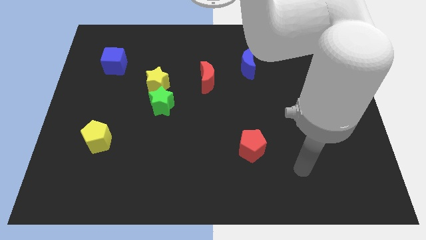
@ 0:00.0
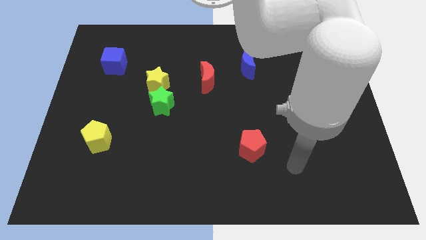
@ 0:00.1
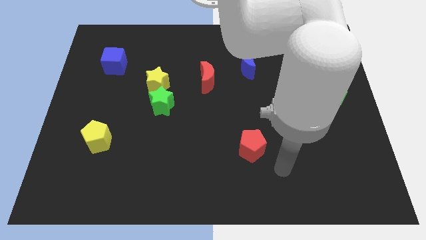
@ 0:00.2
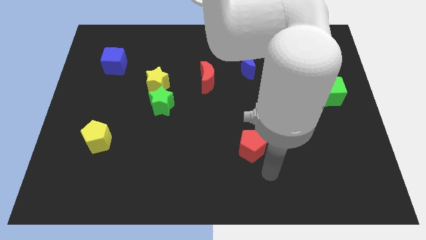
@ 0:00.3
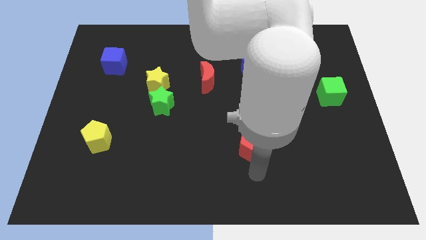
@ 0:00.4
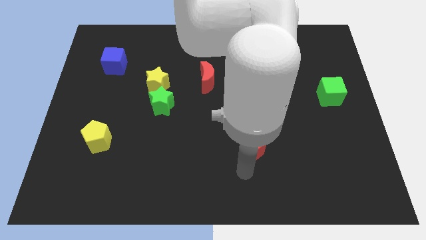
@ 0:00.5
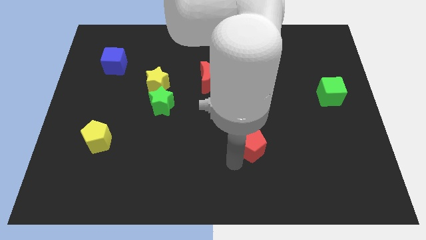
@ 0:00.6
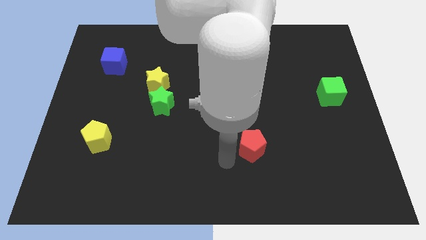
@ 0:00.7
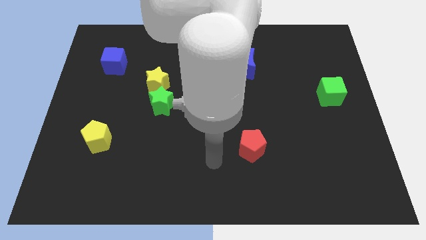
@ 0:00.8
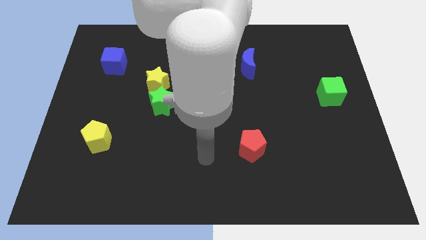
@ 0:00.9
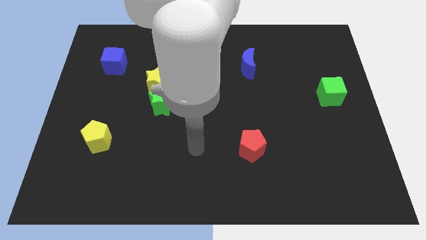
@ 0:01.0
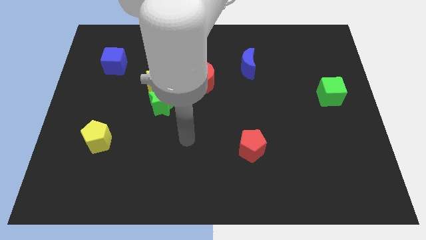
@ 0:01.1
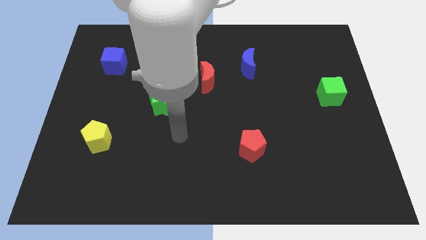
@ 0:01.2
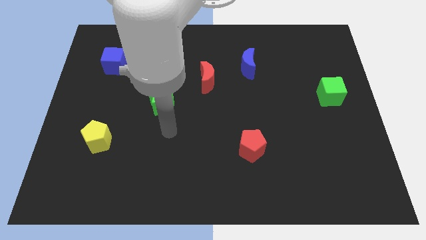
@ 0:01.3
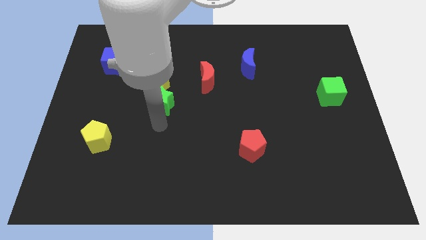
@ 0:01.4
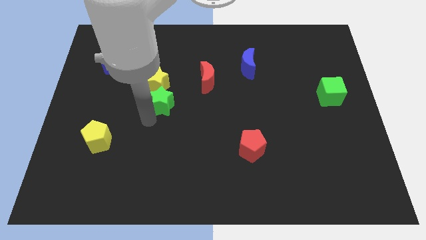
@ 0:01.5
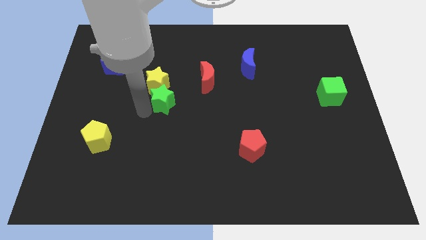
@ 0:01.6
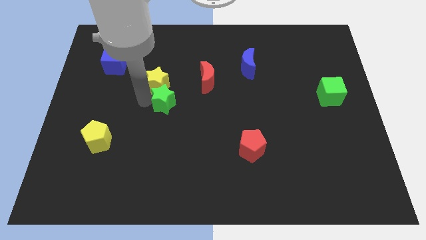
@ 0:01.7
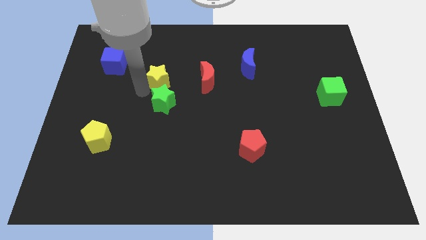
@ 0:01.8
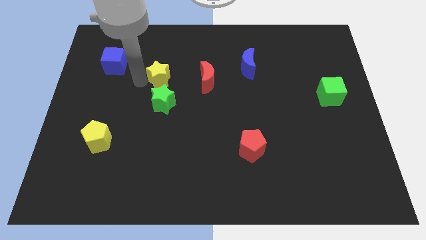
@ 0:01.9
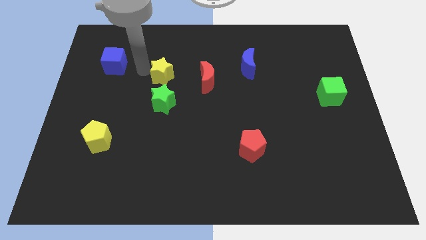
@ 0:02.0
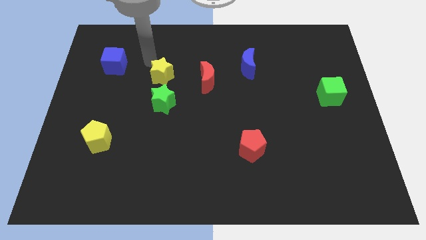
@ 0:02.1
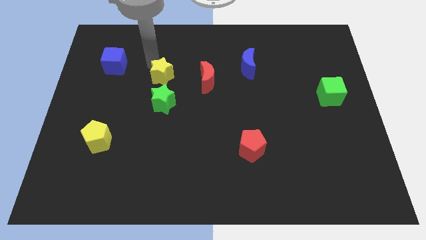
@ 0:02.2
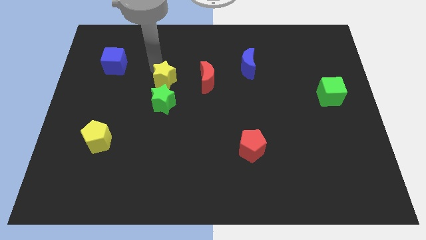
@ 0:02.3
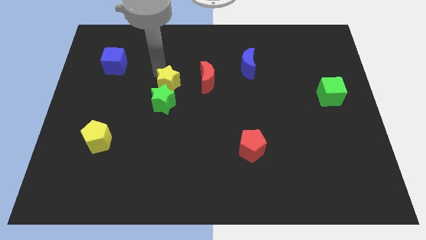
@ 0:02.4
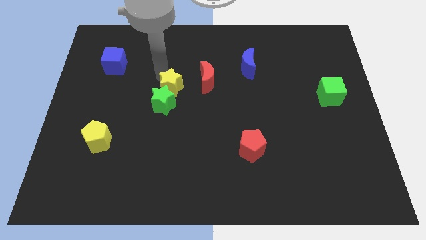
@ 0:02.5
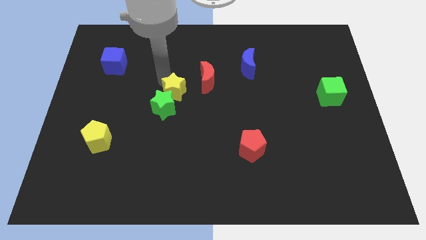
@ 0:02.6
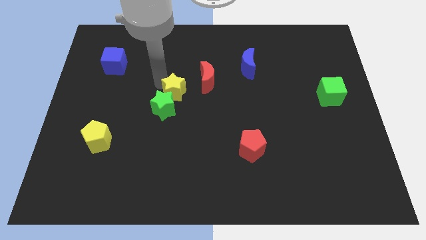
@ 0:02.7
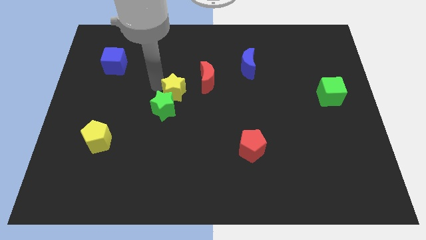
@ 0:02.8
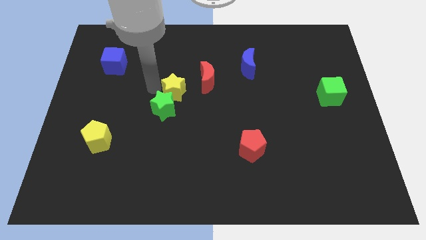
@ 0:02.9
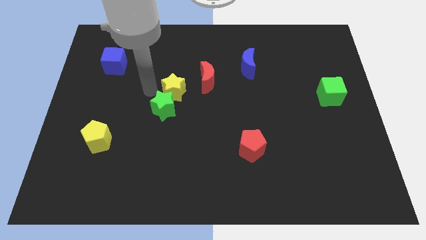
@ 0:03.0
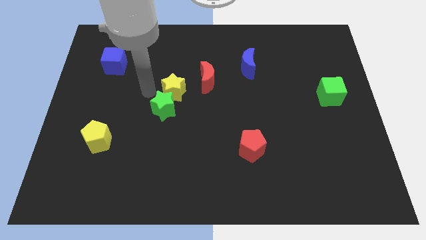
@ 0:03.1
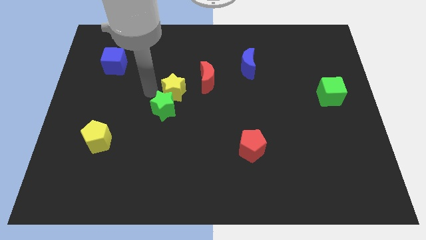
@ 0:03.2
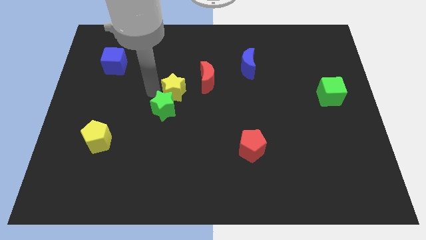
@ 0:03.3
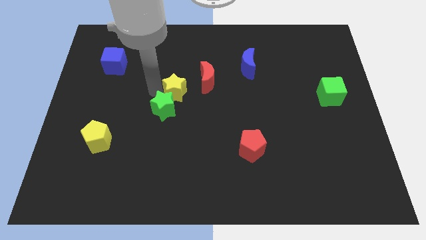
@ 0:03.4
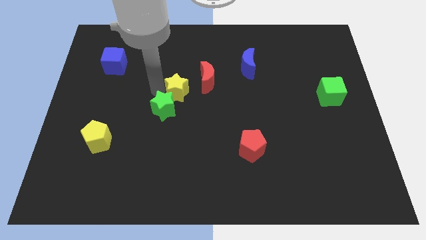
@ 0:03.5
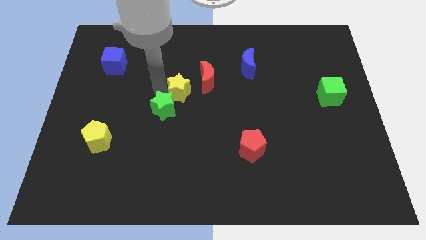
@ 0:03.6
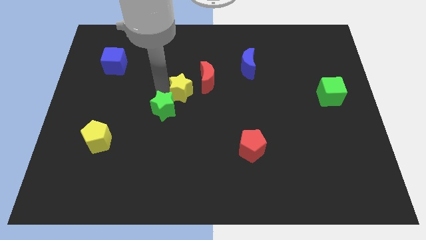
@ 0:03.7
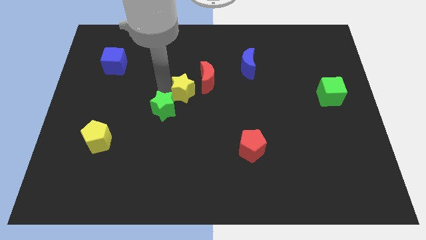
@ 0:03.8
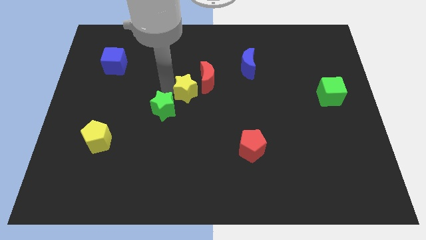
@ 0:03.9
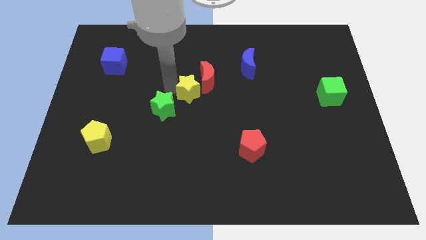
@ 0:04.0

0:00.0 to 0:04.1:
move the yellow star right a bit

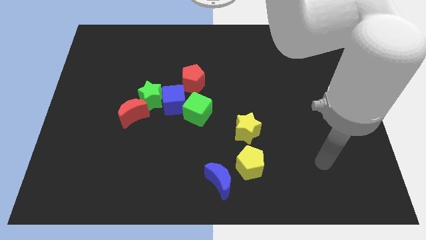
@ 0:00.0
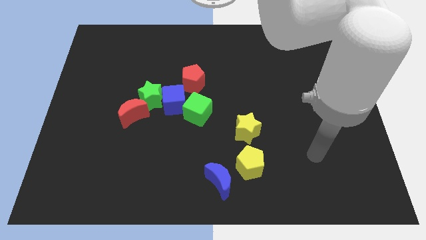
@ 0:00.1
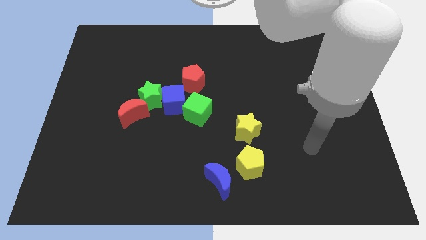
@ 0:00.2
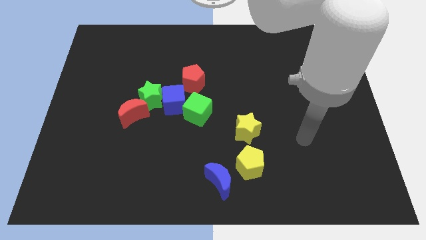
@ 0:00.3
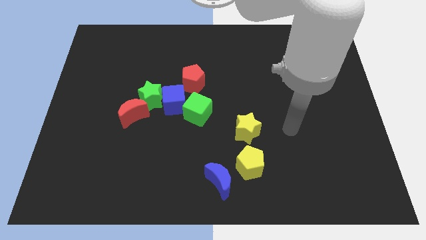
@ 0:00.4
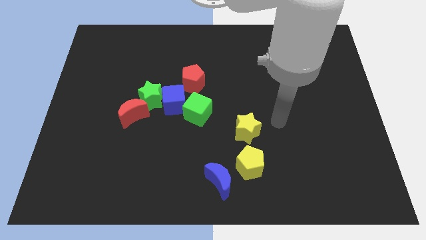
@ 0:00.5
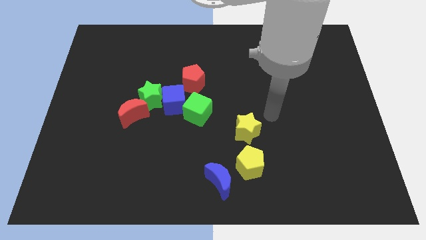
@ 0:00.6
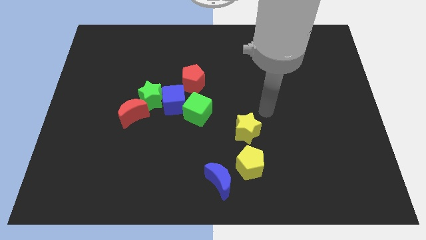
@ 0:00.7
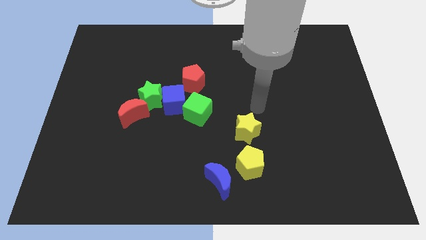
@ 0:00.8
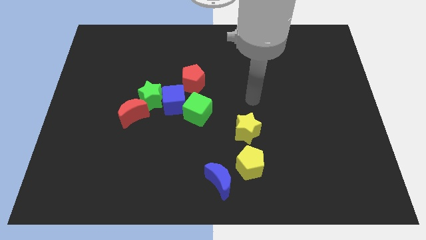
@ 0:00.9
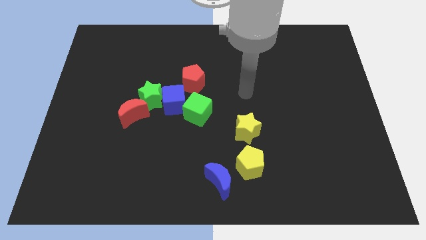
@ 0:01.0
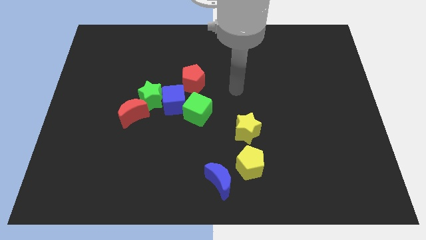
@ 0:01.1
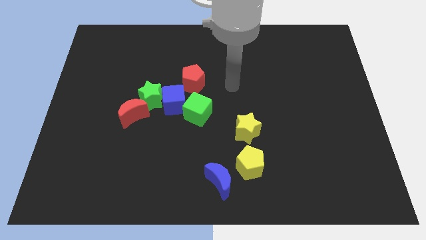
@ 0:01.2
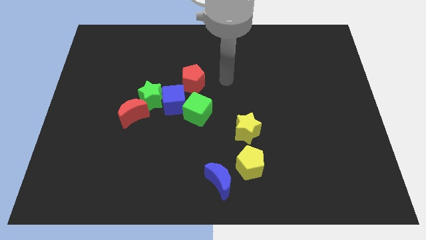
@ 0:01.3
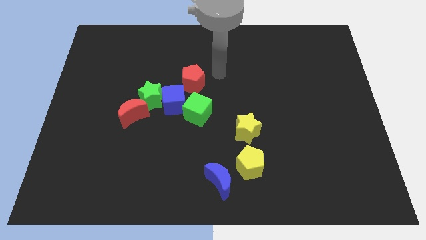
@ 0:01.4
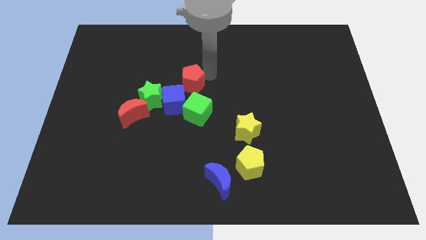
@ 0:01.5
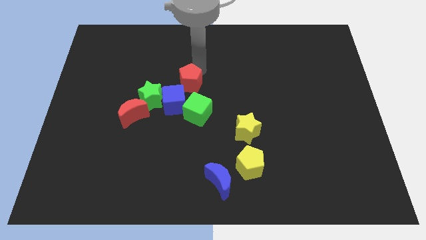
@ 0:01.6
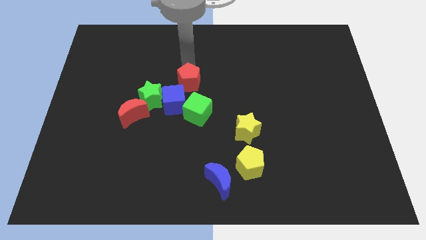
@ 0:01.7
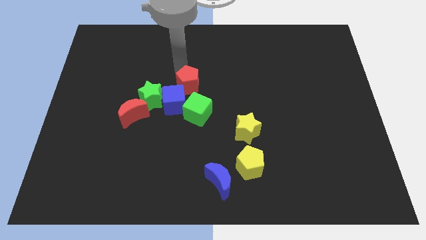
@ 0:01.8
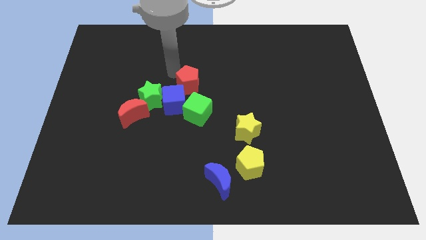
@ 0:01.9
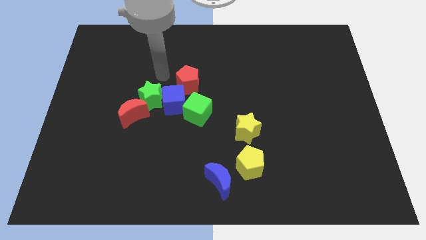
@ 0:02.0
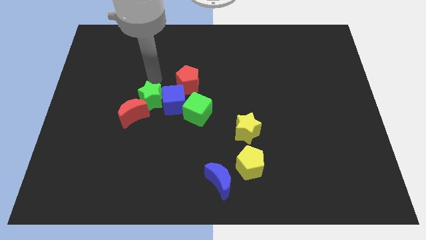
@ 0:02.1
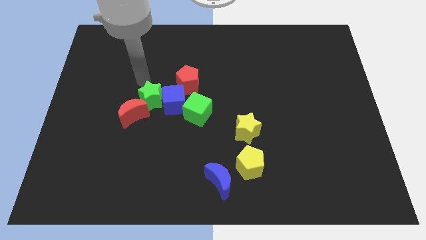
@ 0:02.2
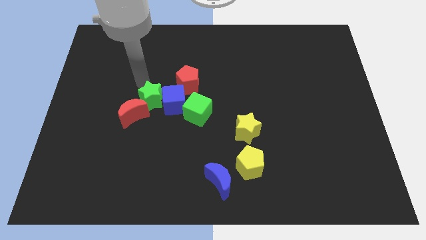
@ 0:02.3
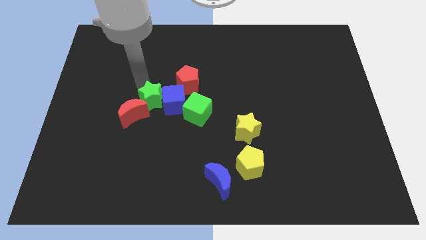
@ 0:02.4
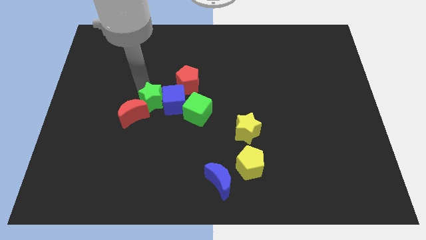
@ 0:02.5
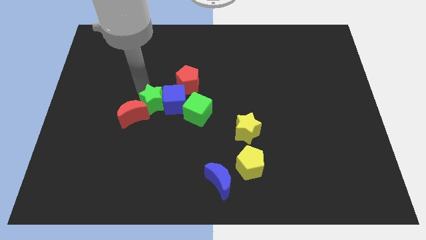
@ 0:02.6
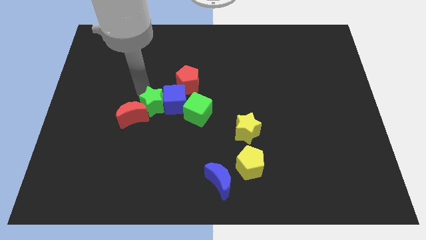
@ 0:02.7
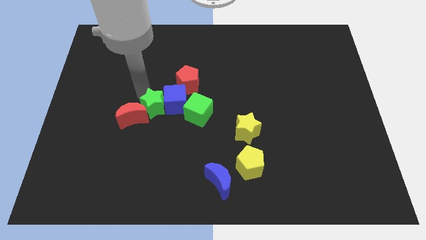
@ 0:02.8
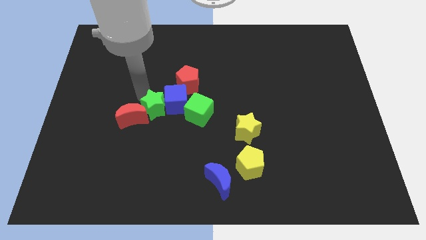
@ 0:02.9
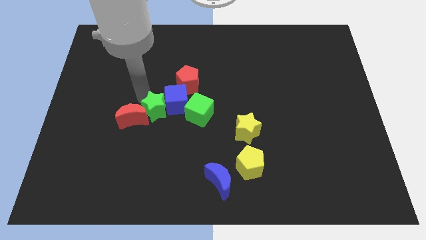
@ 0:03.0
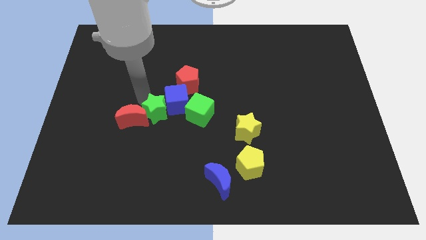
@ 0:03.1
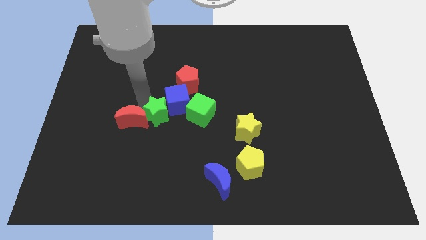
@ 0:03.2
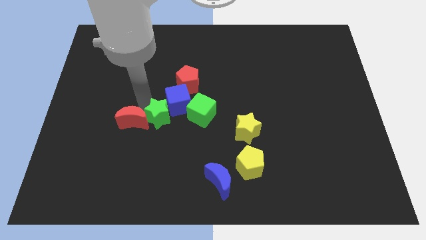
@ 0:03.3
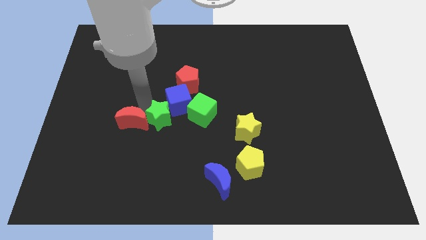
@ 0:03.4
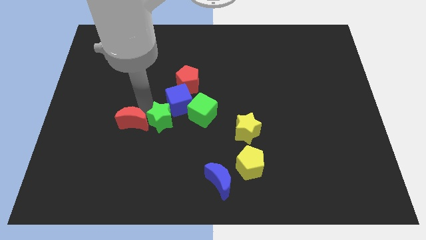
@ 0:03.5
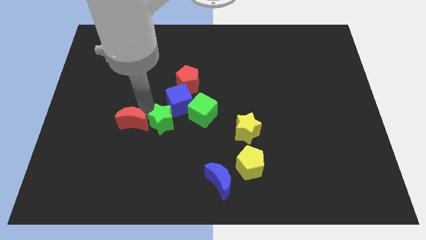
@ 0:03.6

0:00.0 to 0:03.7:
push the green star downwards and then right a little

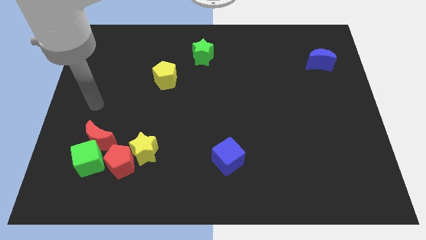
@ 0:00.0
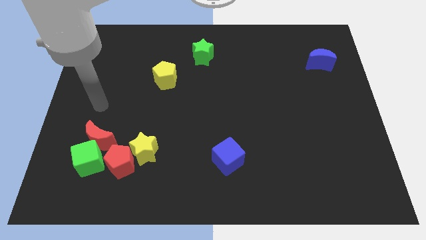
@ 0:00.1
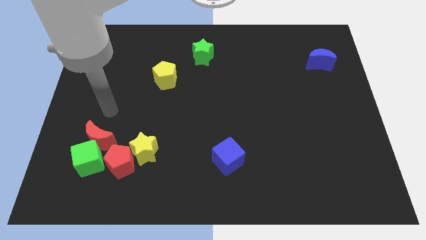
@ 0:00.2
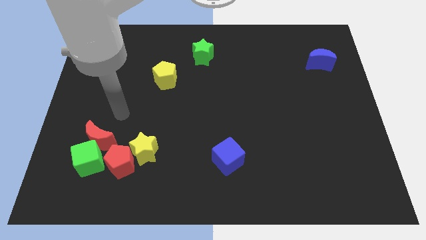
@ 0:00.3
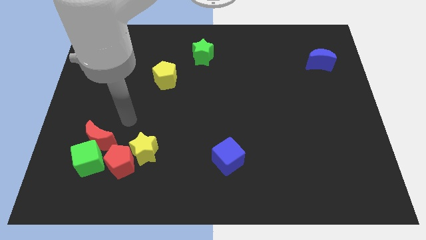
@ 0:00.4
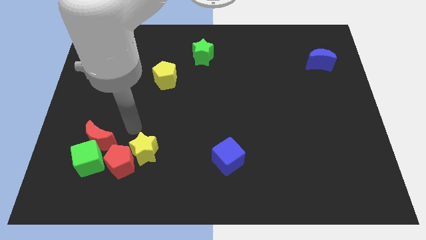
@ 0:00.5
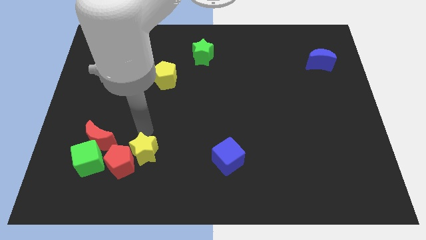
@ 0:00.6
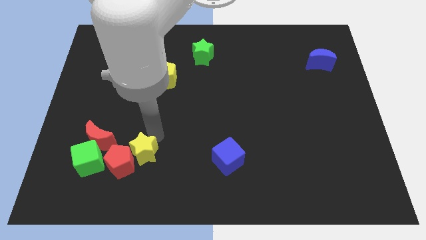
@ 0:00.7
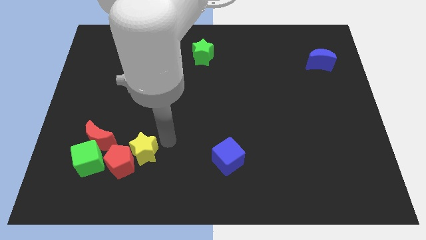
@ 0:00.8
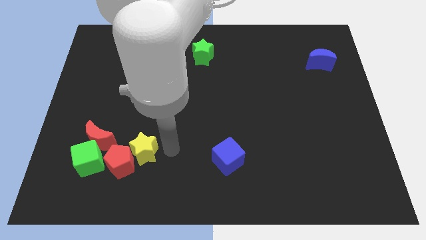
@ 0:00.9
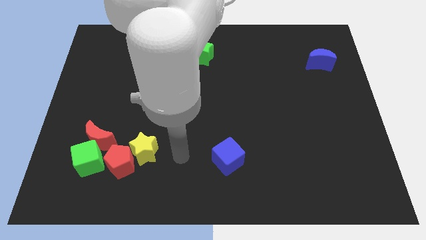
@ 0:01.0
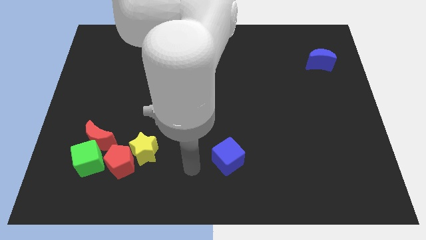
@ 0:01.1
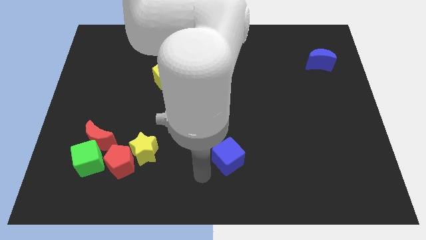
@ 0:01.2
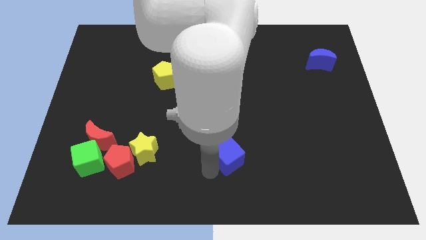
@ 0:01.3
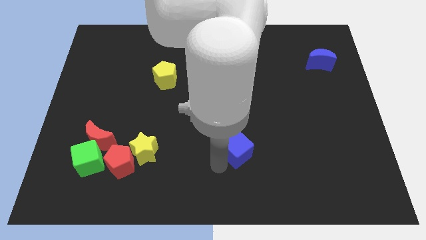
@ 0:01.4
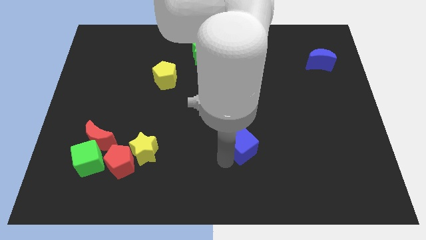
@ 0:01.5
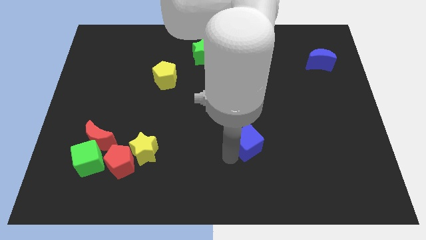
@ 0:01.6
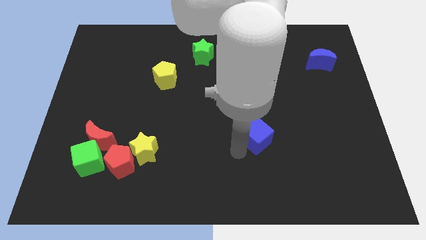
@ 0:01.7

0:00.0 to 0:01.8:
slide the blue cube diagonally up and right a bit
